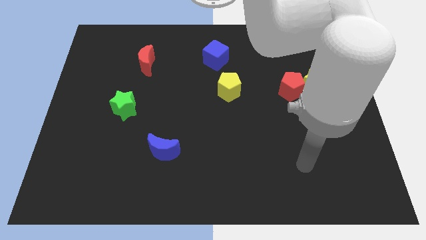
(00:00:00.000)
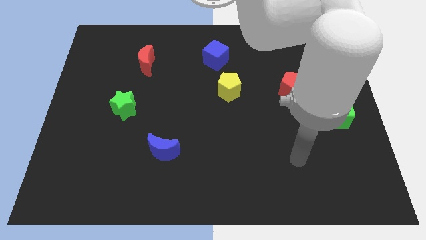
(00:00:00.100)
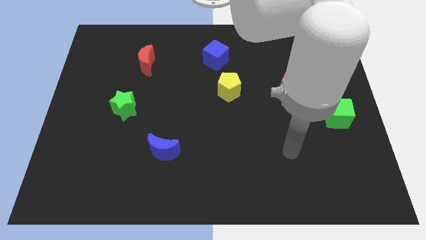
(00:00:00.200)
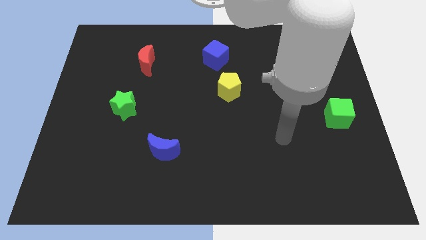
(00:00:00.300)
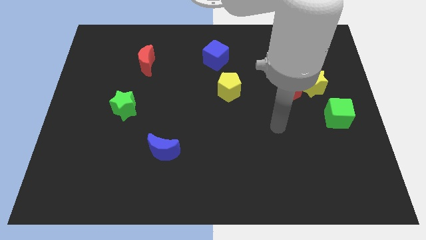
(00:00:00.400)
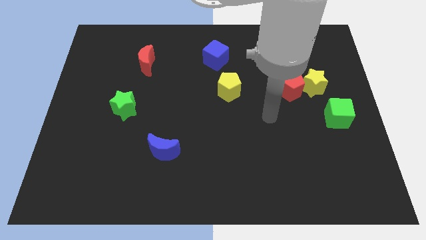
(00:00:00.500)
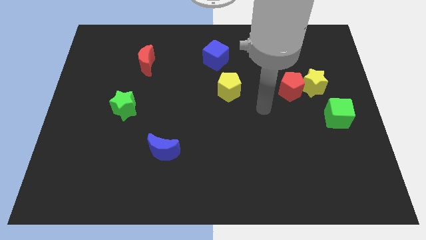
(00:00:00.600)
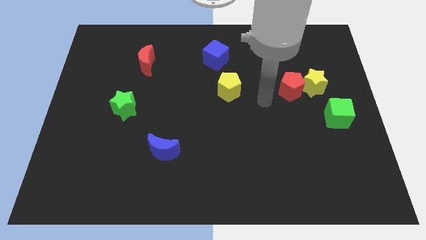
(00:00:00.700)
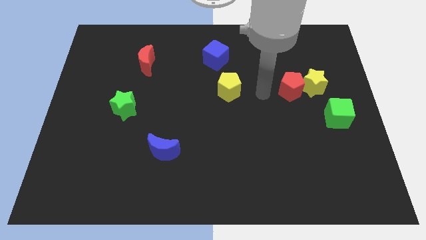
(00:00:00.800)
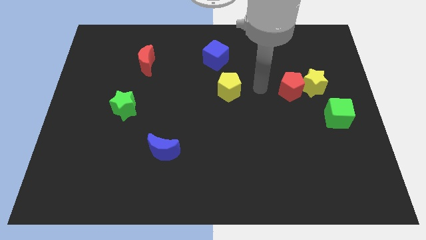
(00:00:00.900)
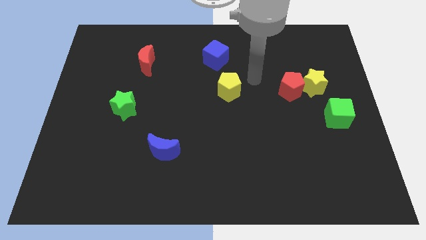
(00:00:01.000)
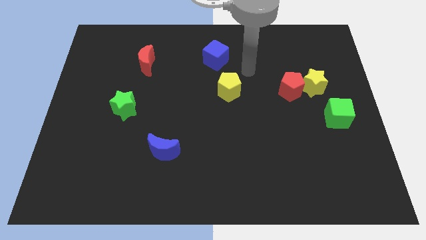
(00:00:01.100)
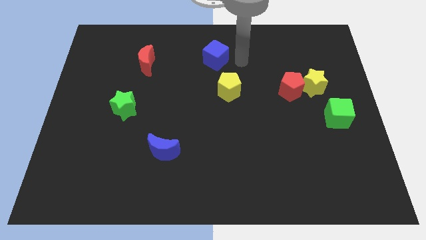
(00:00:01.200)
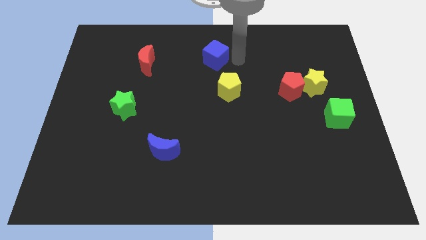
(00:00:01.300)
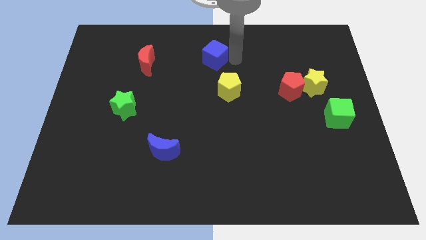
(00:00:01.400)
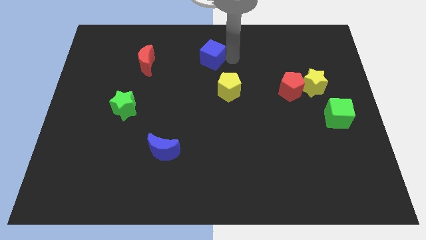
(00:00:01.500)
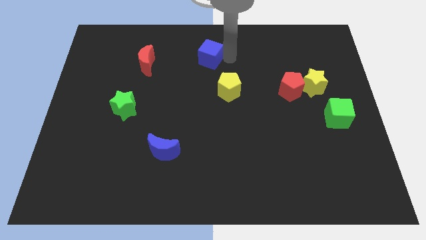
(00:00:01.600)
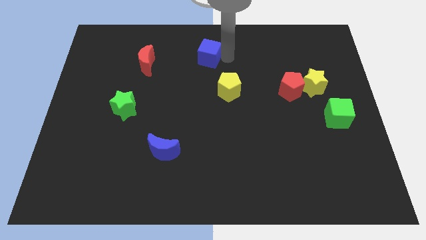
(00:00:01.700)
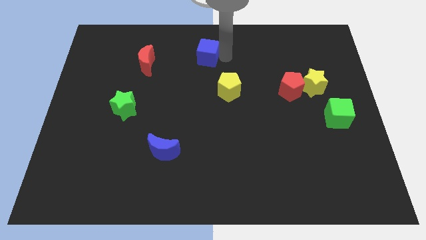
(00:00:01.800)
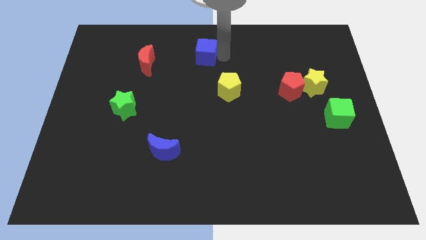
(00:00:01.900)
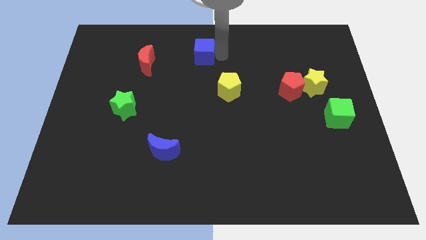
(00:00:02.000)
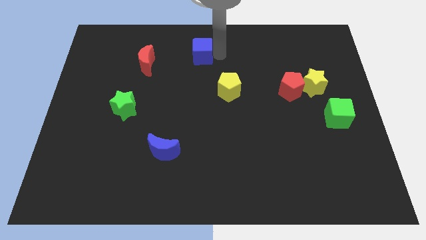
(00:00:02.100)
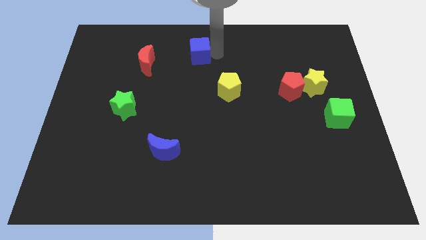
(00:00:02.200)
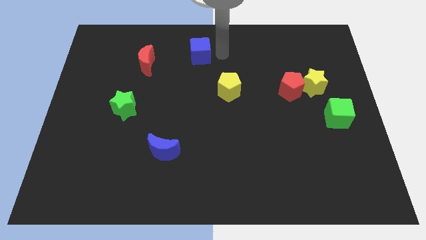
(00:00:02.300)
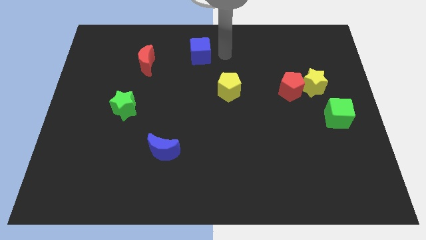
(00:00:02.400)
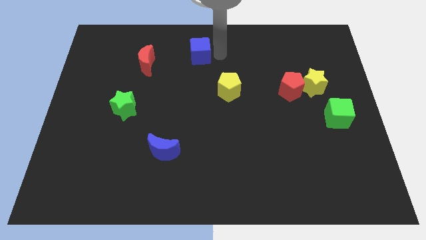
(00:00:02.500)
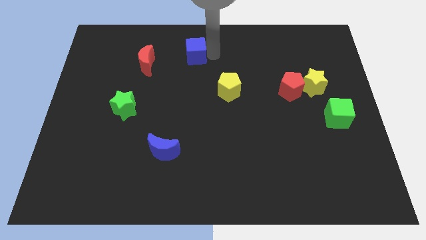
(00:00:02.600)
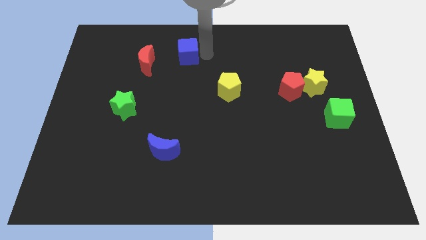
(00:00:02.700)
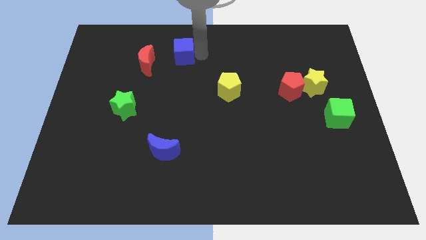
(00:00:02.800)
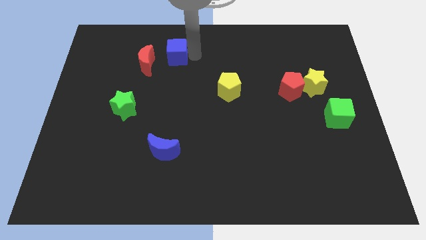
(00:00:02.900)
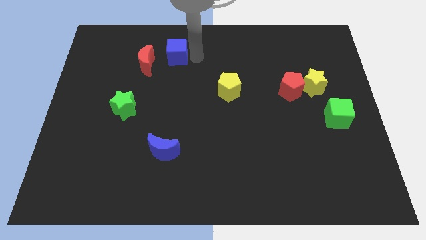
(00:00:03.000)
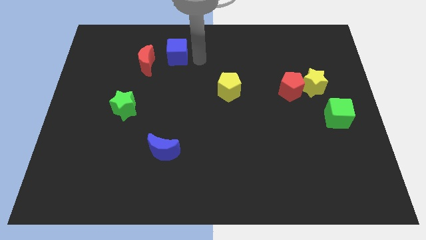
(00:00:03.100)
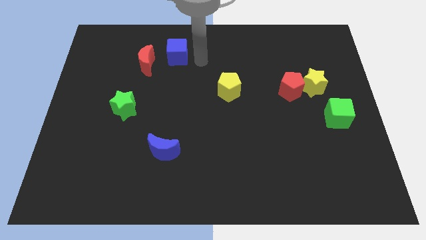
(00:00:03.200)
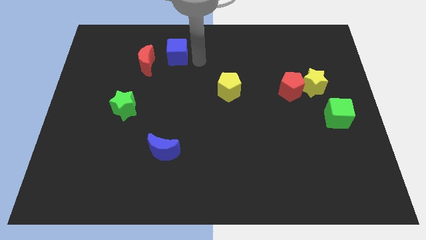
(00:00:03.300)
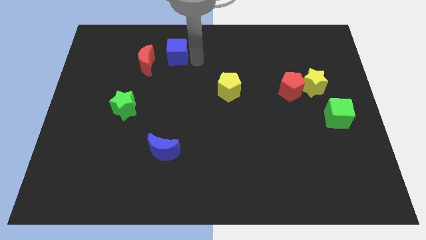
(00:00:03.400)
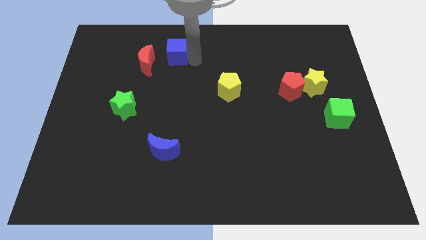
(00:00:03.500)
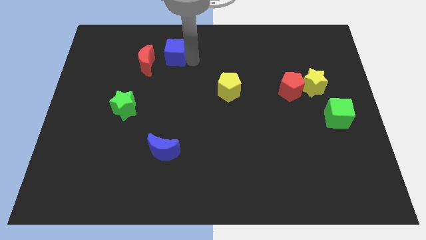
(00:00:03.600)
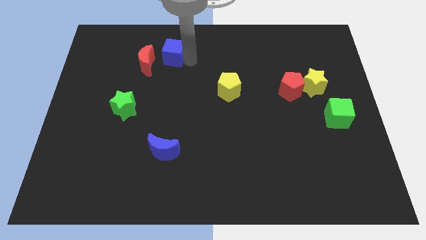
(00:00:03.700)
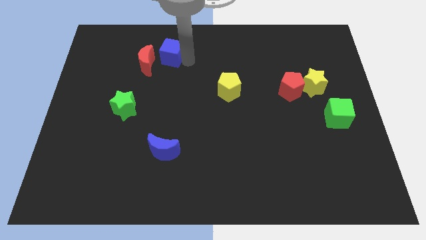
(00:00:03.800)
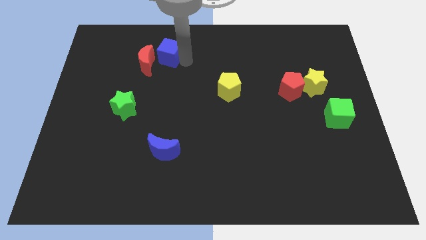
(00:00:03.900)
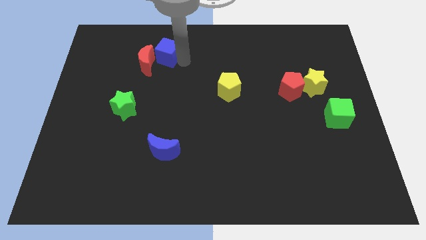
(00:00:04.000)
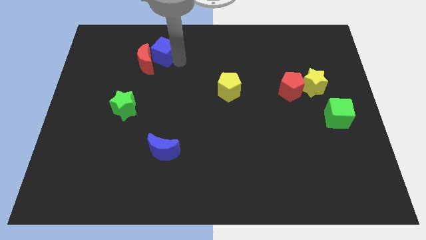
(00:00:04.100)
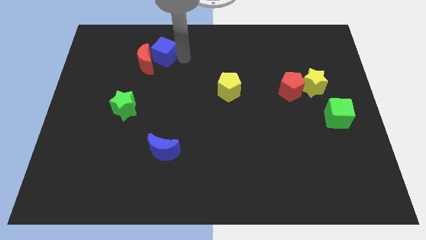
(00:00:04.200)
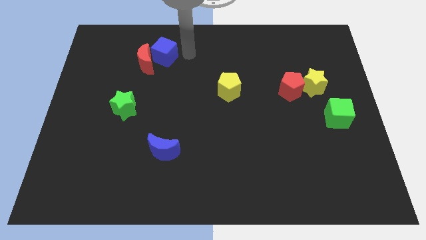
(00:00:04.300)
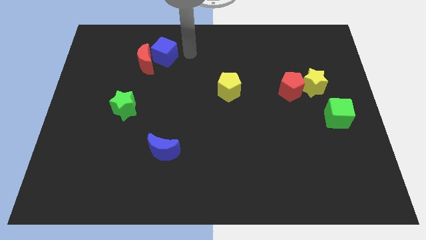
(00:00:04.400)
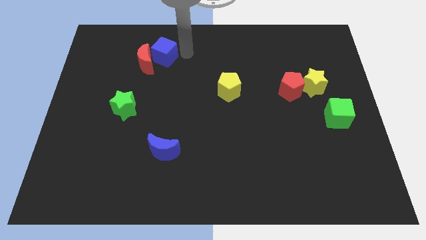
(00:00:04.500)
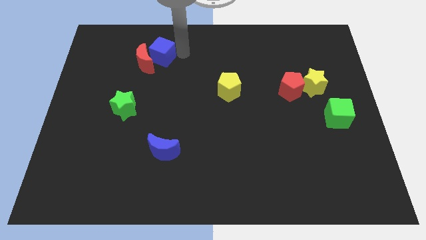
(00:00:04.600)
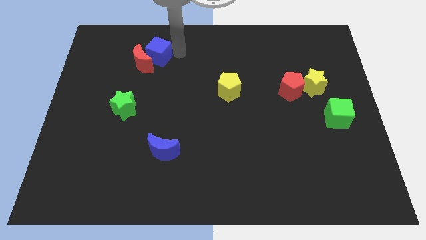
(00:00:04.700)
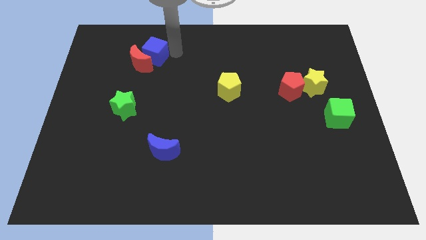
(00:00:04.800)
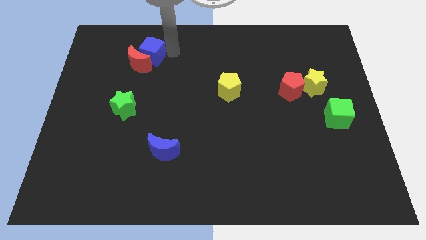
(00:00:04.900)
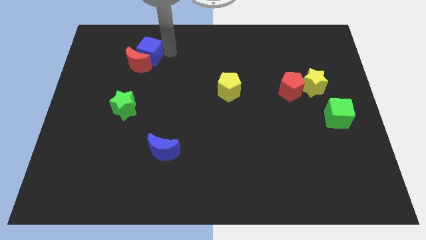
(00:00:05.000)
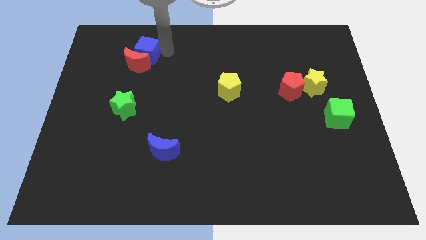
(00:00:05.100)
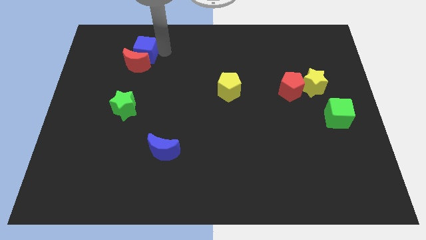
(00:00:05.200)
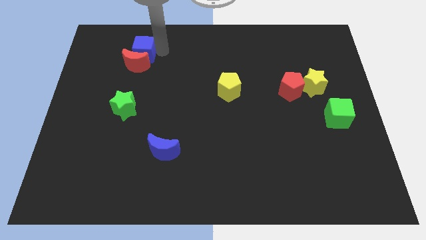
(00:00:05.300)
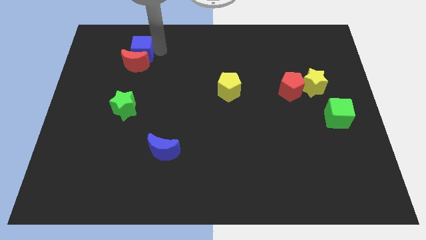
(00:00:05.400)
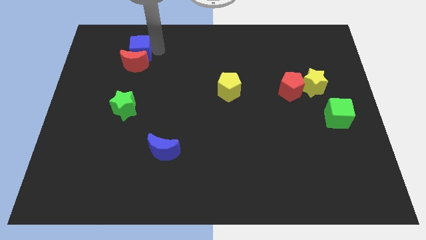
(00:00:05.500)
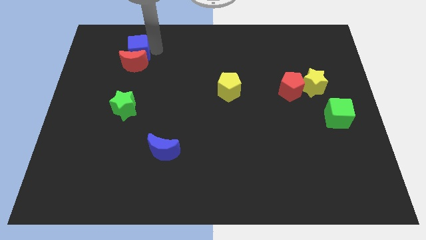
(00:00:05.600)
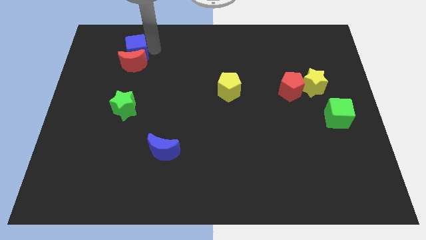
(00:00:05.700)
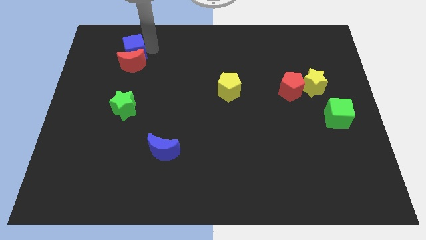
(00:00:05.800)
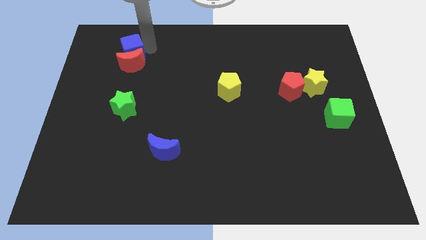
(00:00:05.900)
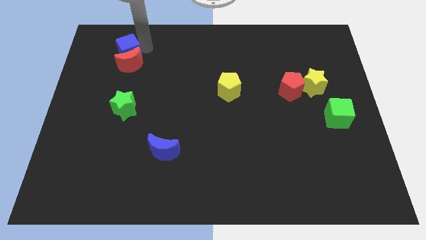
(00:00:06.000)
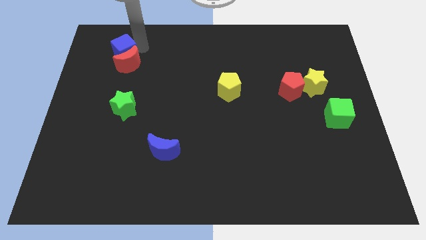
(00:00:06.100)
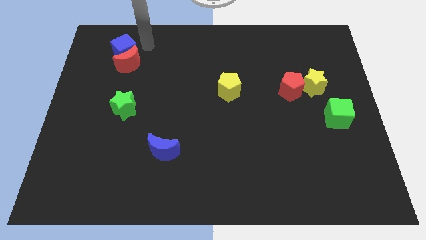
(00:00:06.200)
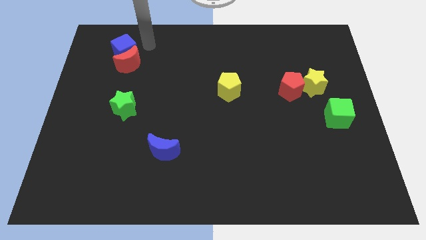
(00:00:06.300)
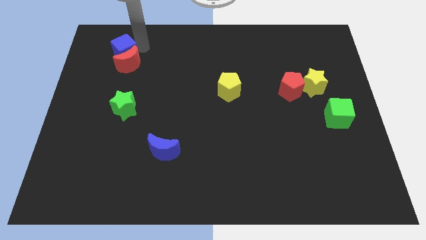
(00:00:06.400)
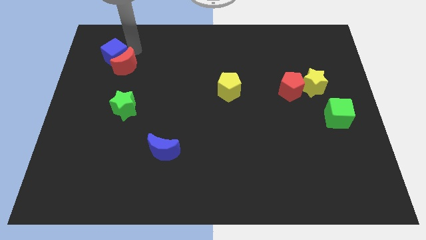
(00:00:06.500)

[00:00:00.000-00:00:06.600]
put the blue cube just left of the red moon

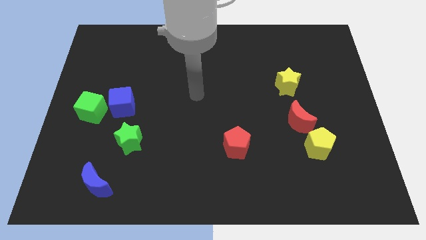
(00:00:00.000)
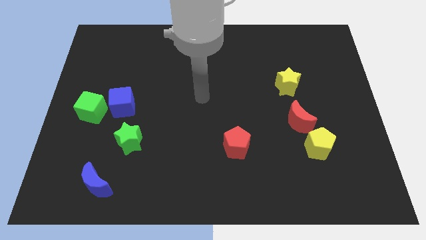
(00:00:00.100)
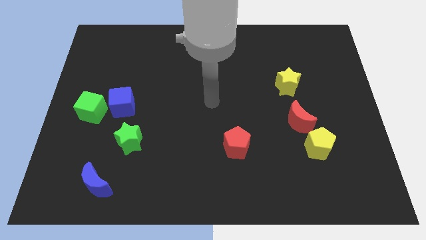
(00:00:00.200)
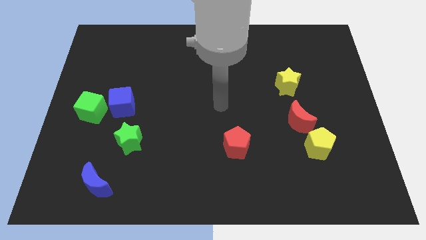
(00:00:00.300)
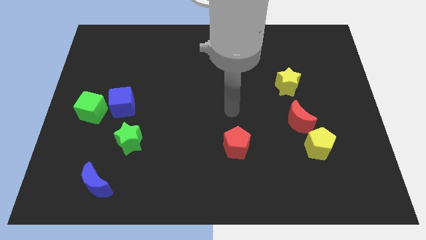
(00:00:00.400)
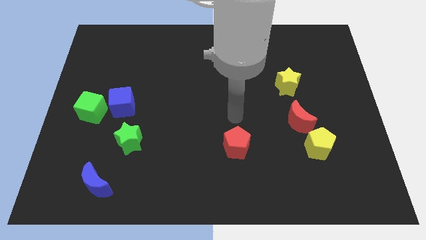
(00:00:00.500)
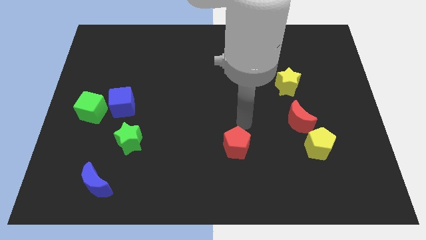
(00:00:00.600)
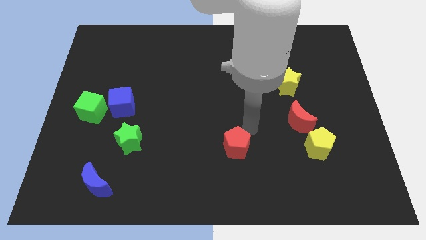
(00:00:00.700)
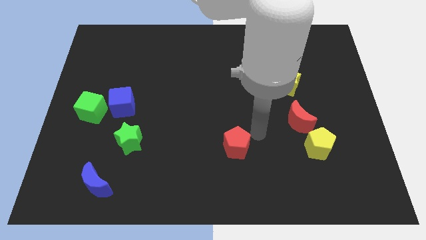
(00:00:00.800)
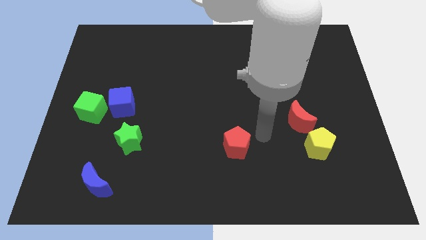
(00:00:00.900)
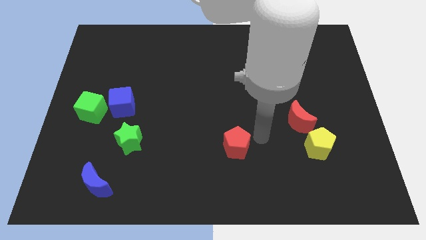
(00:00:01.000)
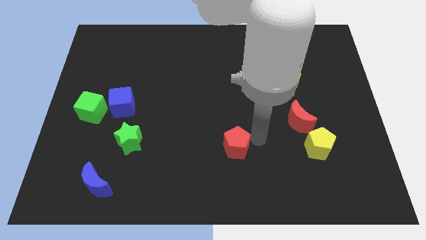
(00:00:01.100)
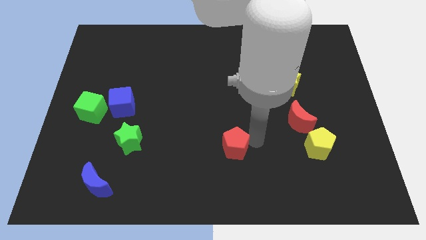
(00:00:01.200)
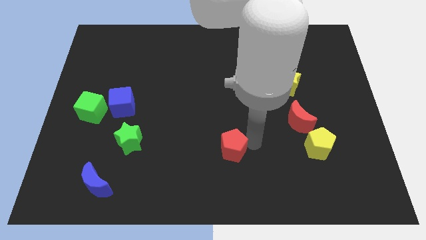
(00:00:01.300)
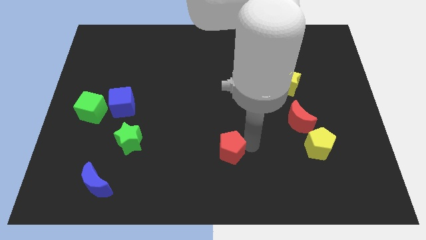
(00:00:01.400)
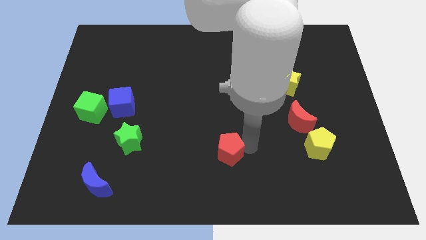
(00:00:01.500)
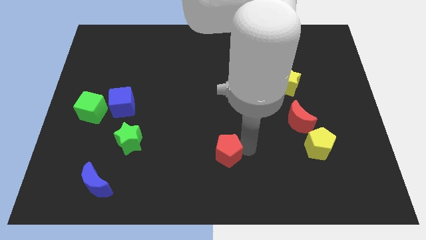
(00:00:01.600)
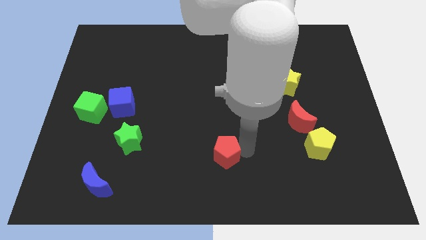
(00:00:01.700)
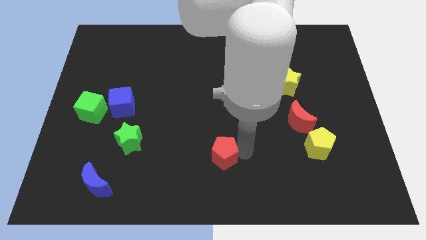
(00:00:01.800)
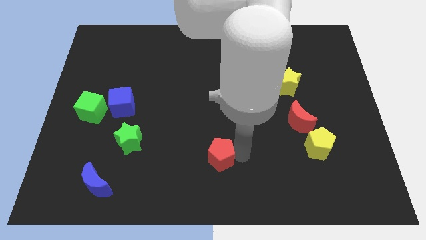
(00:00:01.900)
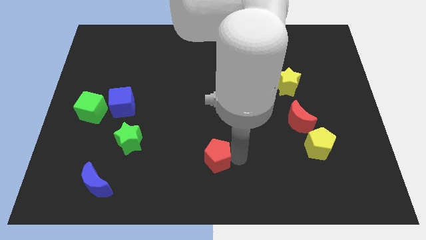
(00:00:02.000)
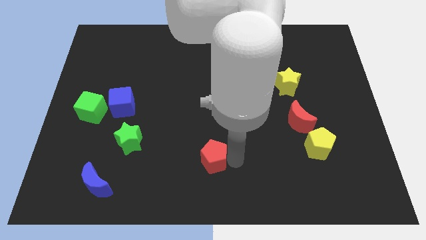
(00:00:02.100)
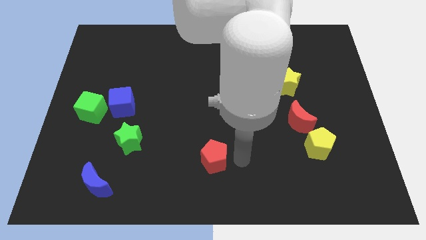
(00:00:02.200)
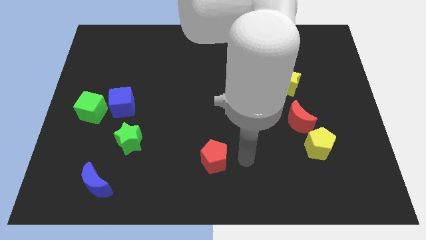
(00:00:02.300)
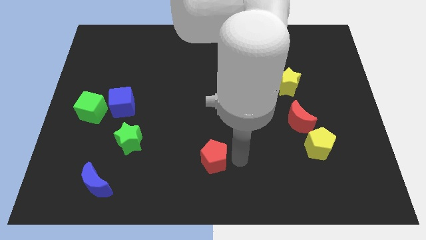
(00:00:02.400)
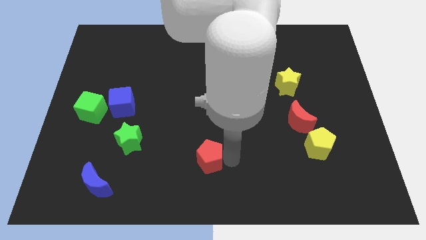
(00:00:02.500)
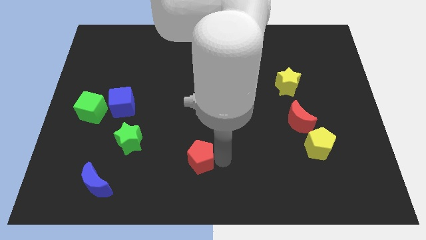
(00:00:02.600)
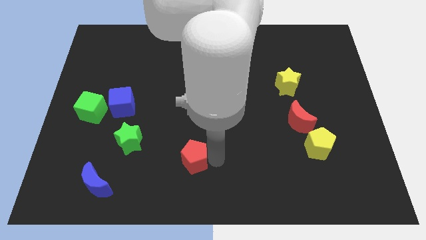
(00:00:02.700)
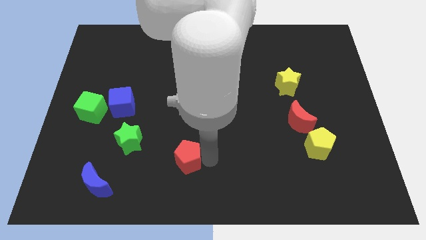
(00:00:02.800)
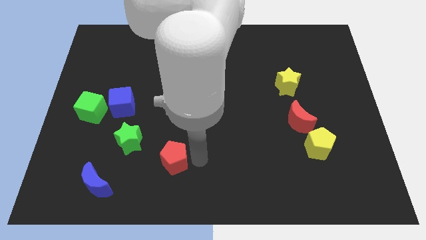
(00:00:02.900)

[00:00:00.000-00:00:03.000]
push the red pentagon to the bottom right of the green star
